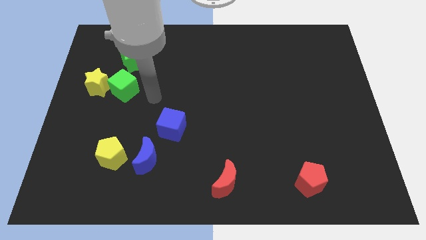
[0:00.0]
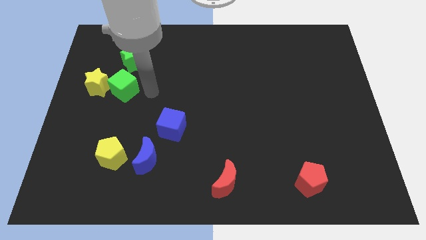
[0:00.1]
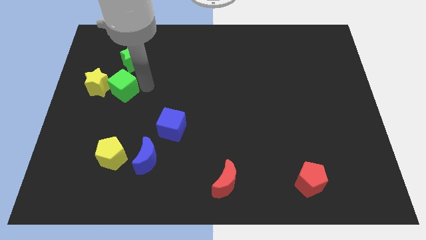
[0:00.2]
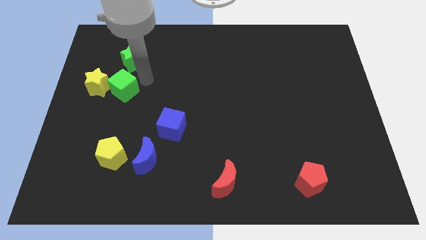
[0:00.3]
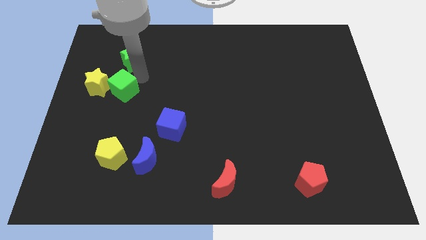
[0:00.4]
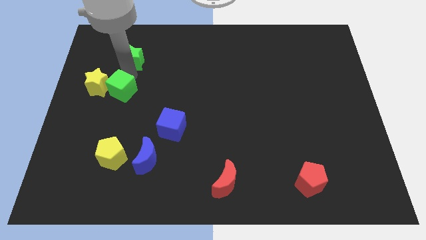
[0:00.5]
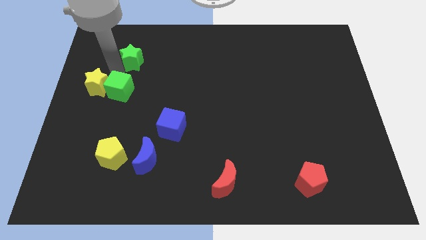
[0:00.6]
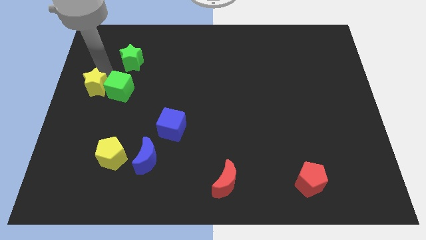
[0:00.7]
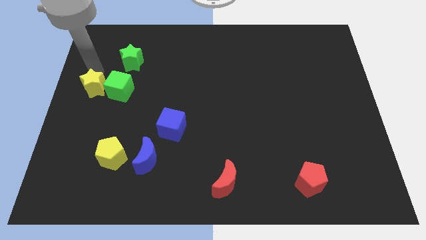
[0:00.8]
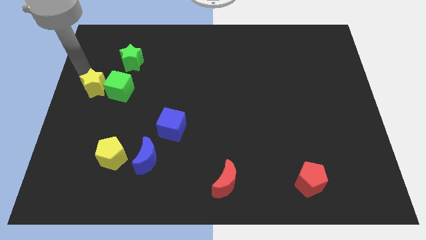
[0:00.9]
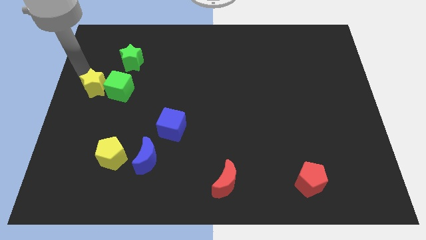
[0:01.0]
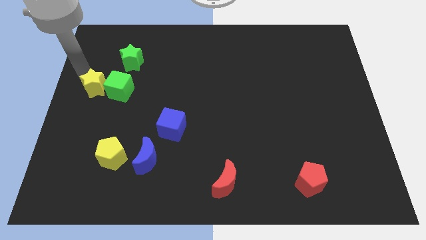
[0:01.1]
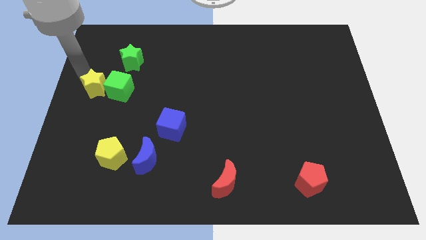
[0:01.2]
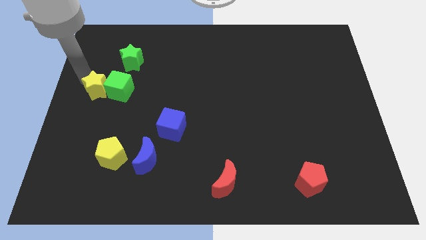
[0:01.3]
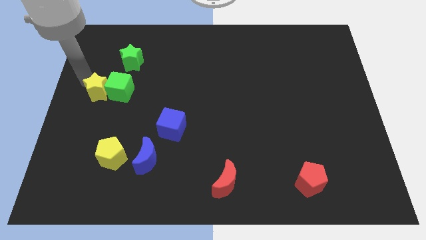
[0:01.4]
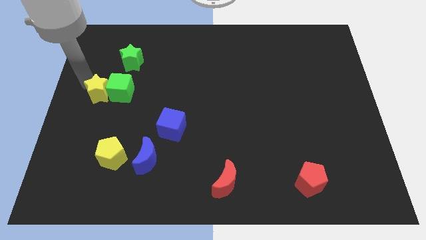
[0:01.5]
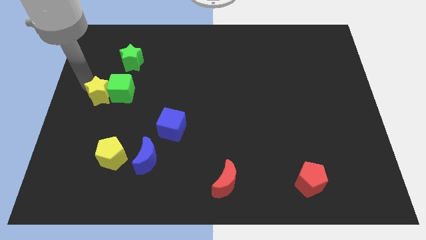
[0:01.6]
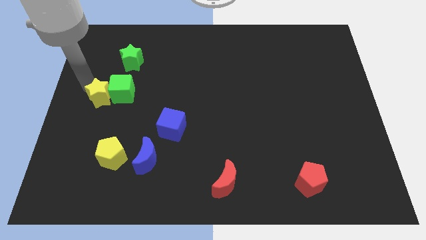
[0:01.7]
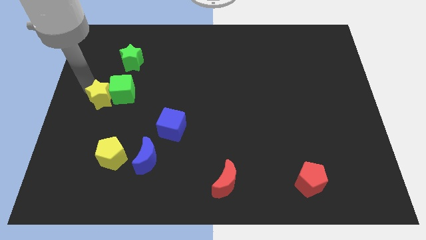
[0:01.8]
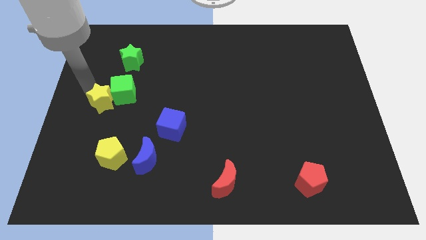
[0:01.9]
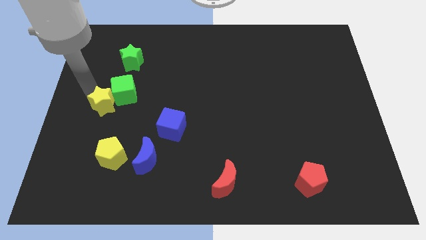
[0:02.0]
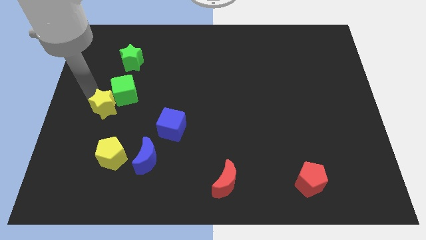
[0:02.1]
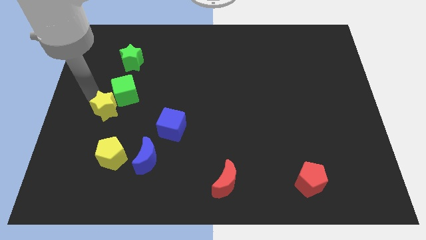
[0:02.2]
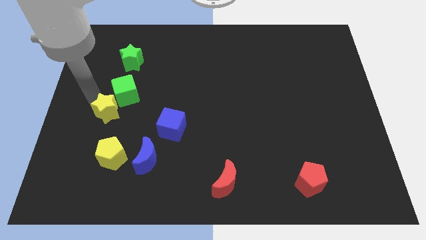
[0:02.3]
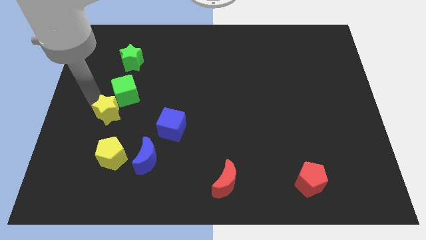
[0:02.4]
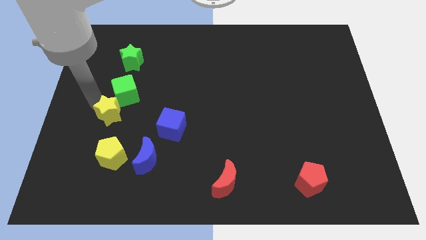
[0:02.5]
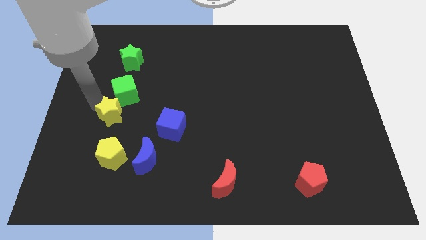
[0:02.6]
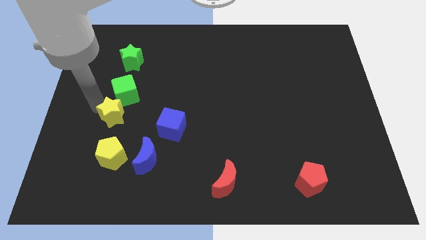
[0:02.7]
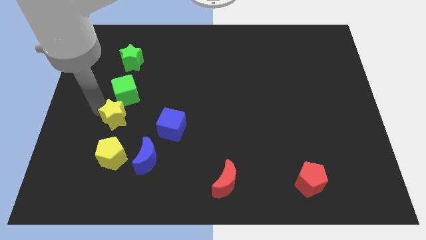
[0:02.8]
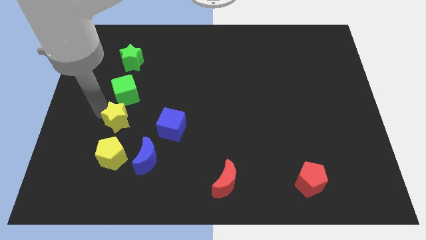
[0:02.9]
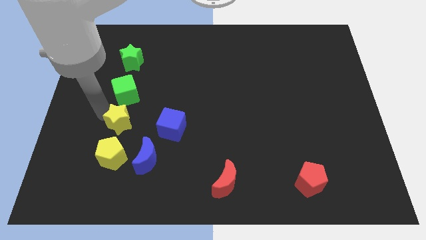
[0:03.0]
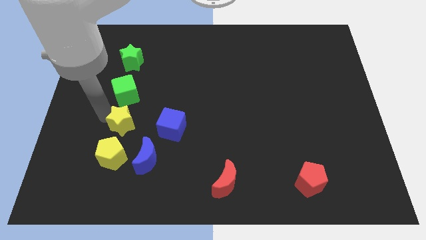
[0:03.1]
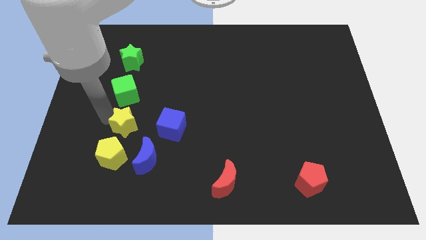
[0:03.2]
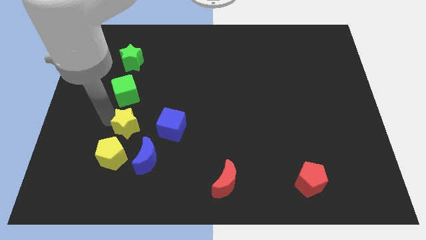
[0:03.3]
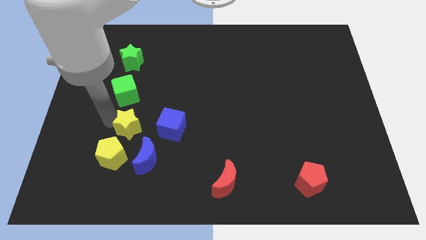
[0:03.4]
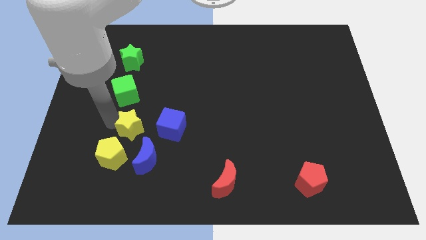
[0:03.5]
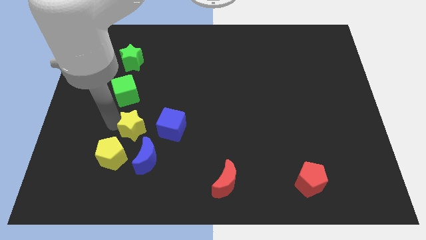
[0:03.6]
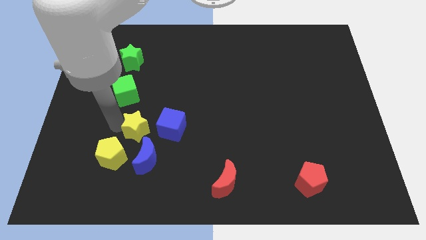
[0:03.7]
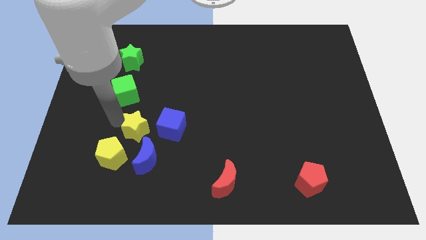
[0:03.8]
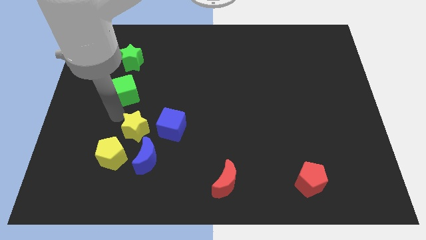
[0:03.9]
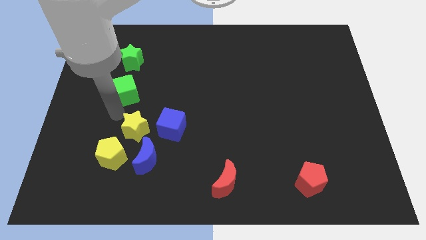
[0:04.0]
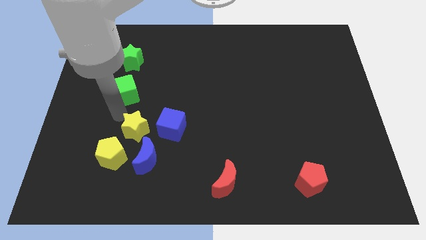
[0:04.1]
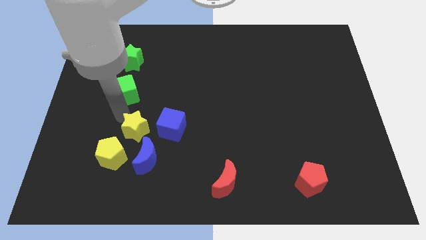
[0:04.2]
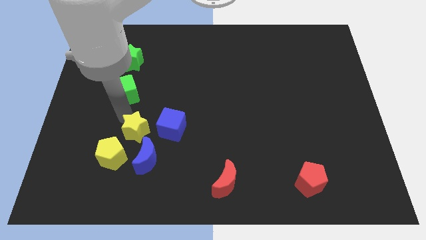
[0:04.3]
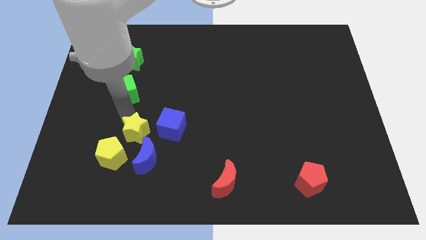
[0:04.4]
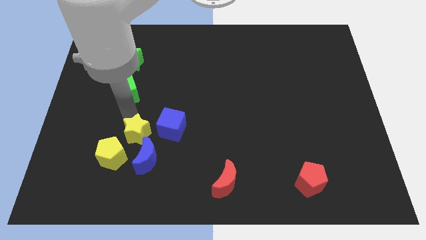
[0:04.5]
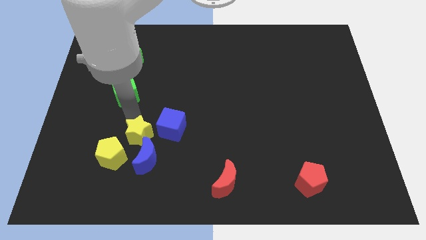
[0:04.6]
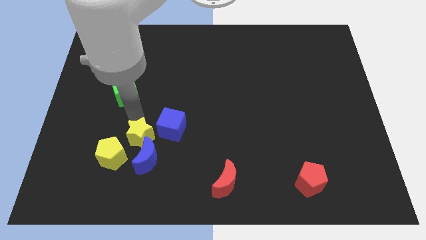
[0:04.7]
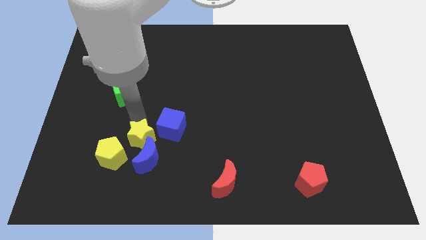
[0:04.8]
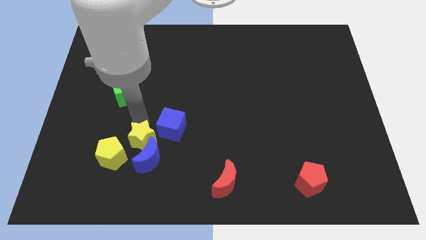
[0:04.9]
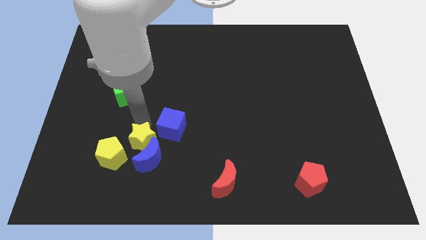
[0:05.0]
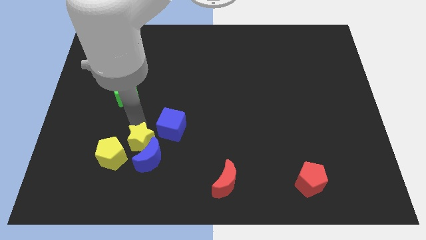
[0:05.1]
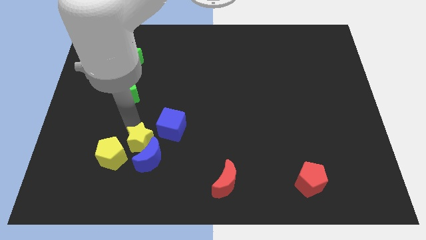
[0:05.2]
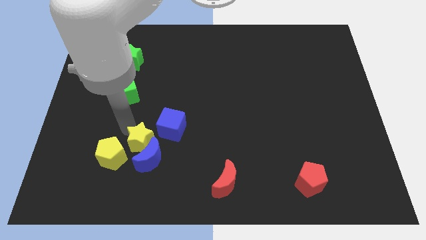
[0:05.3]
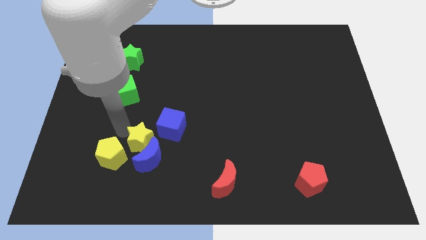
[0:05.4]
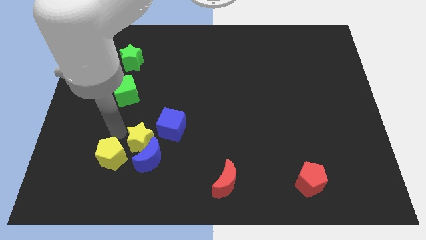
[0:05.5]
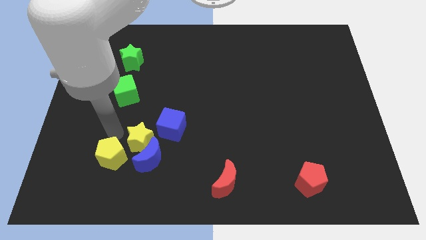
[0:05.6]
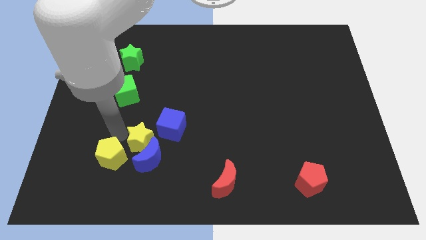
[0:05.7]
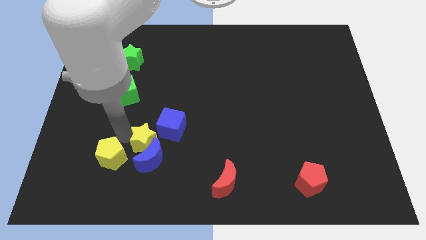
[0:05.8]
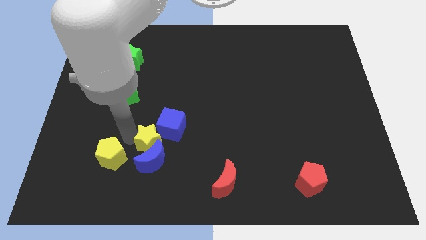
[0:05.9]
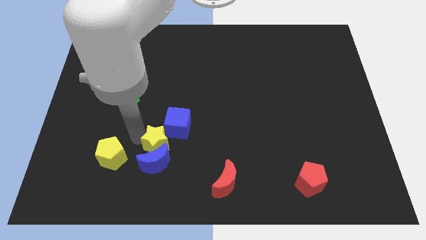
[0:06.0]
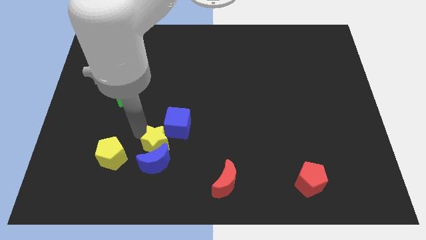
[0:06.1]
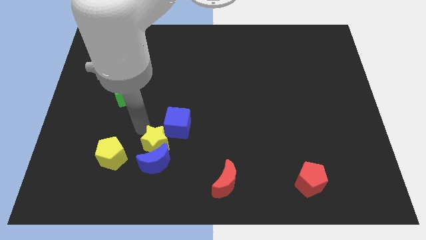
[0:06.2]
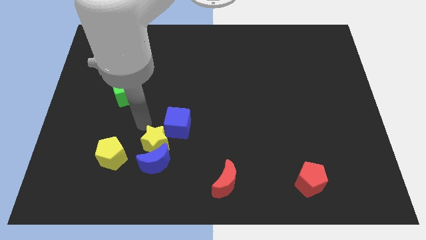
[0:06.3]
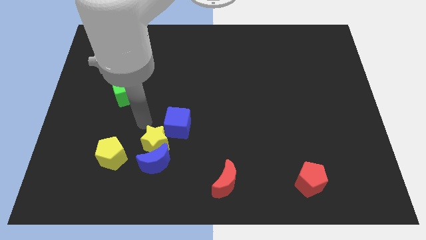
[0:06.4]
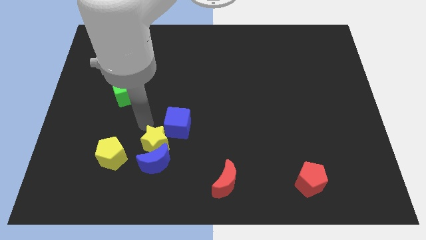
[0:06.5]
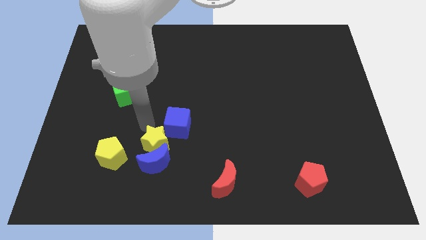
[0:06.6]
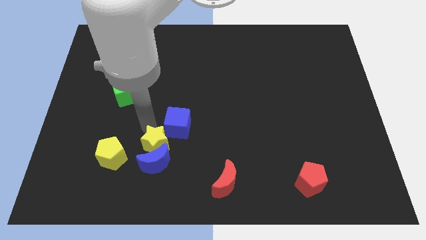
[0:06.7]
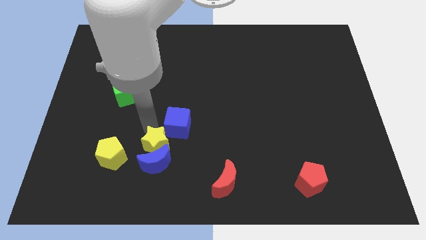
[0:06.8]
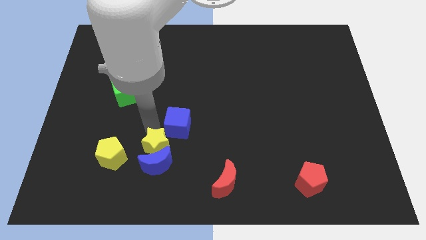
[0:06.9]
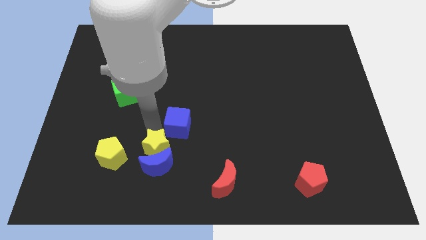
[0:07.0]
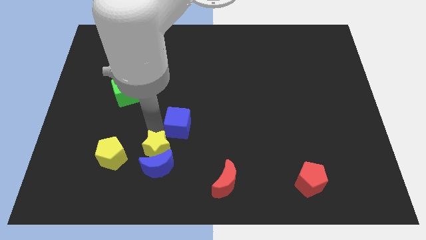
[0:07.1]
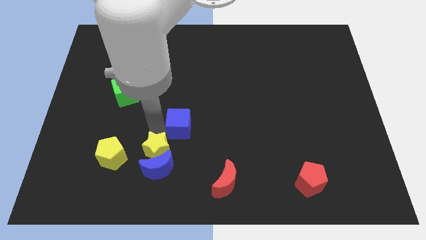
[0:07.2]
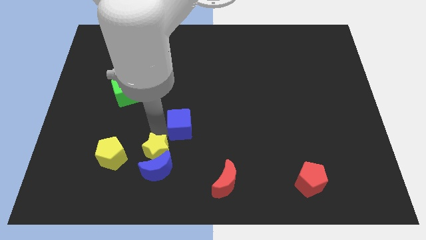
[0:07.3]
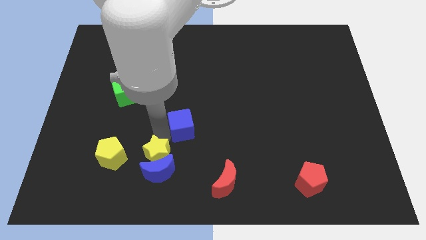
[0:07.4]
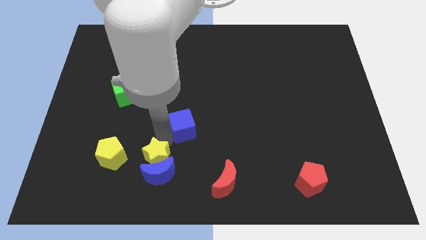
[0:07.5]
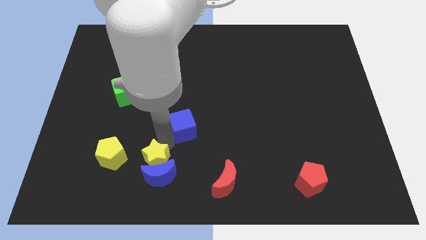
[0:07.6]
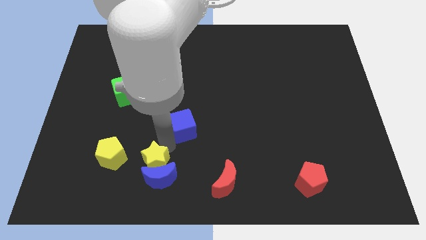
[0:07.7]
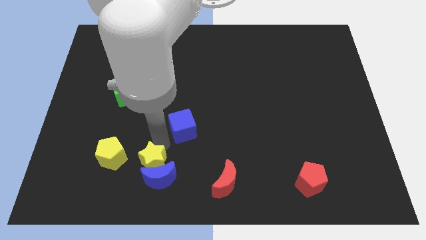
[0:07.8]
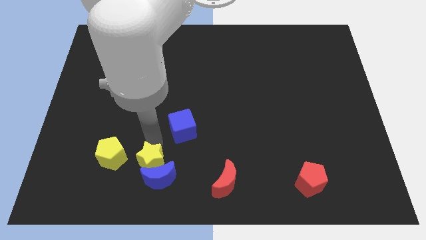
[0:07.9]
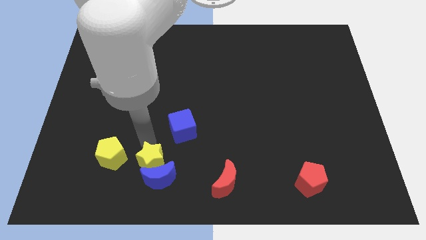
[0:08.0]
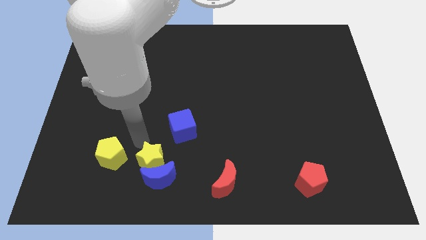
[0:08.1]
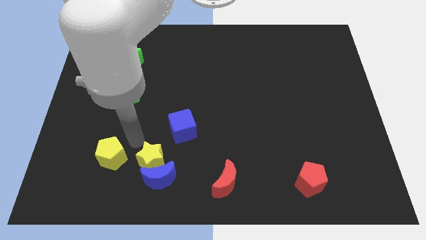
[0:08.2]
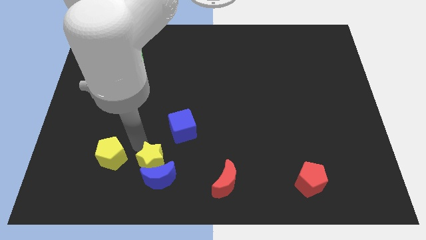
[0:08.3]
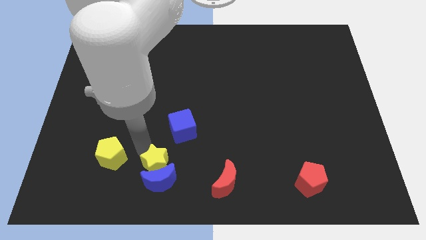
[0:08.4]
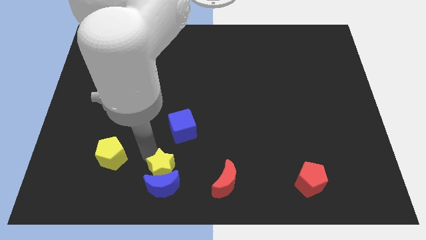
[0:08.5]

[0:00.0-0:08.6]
move the yellow star just left of the red moon
